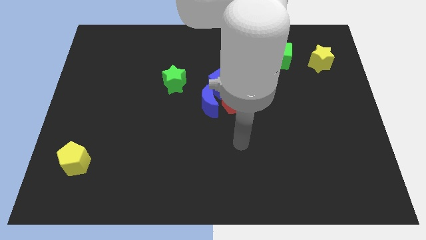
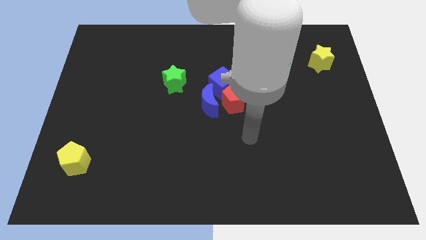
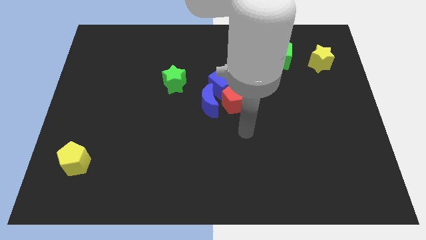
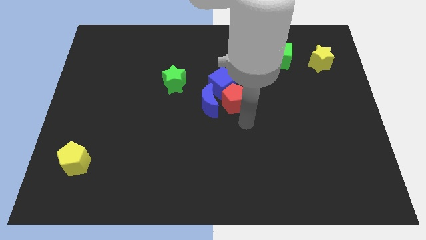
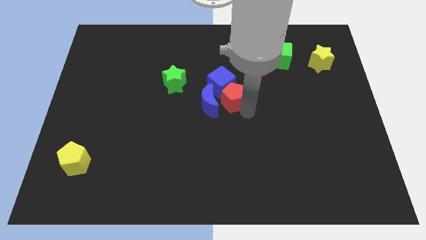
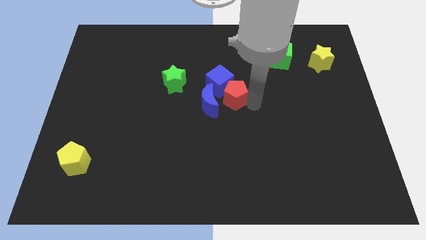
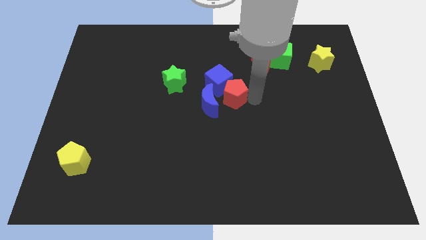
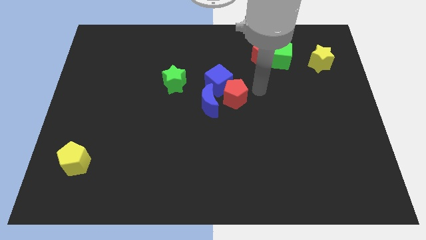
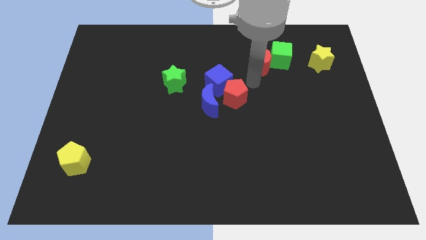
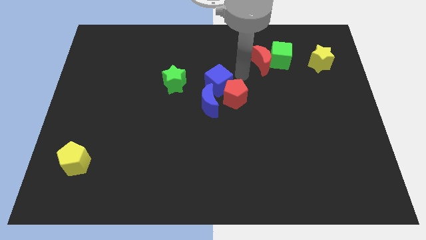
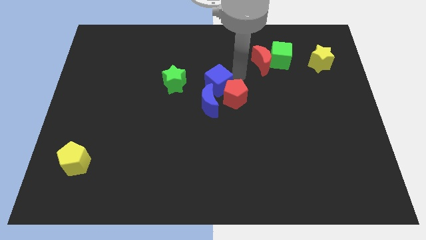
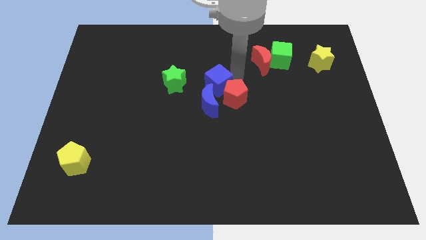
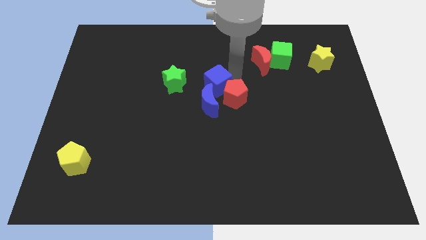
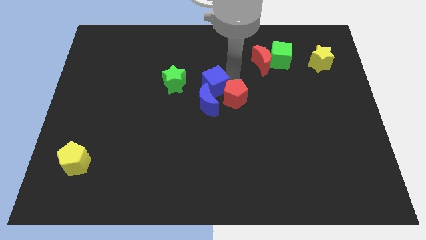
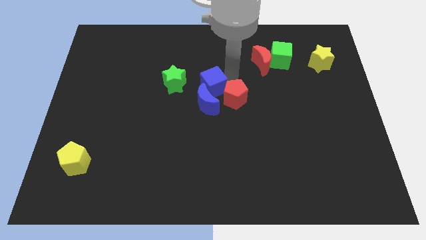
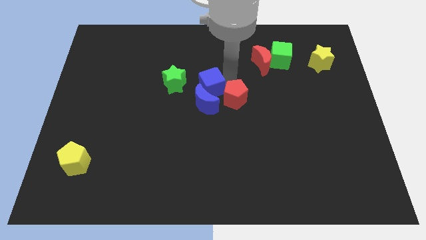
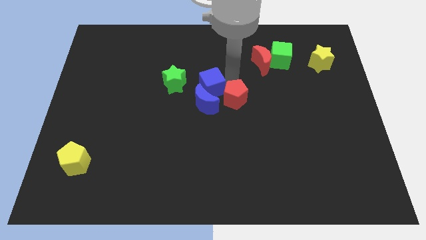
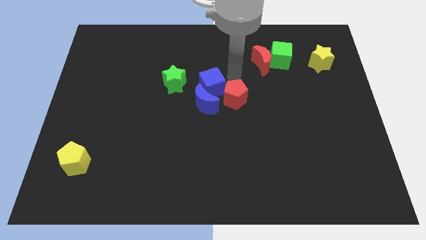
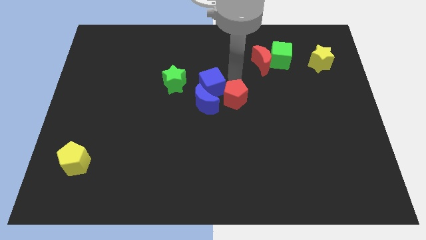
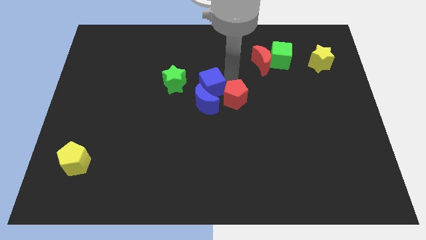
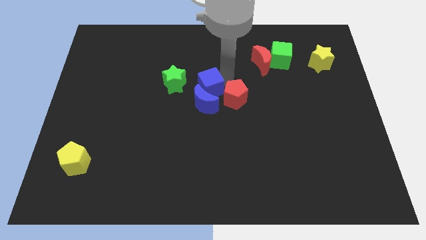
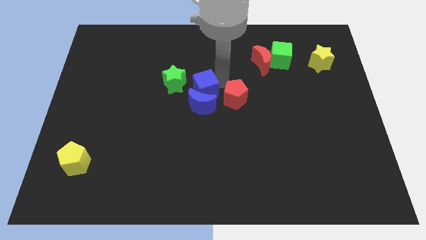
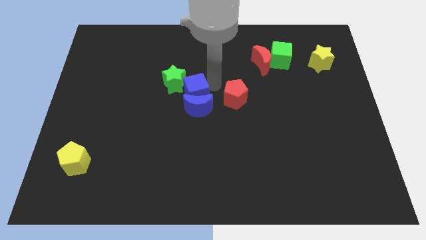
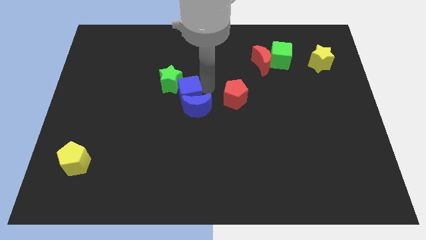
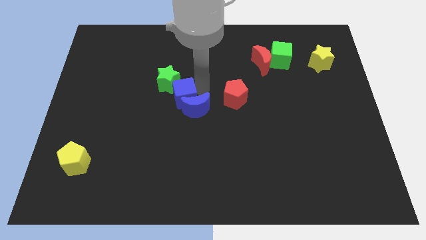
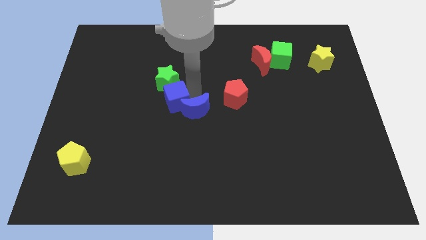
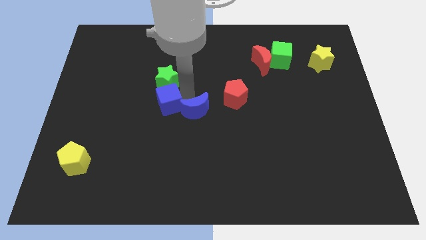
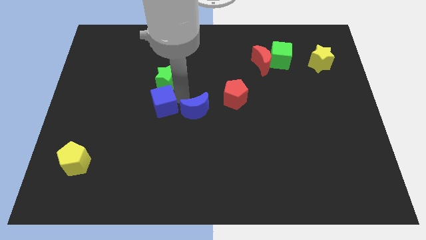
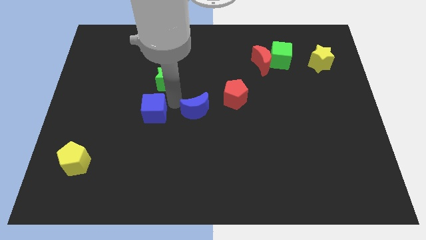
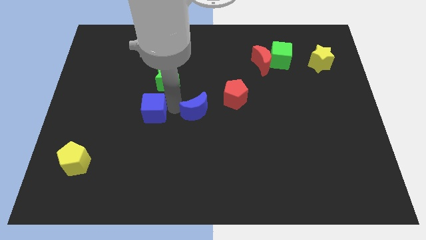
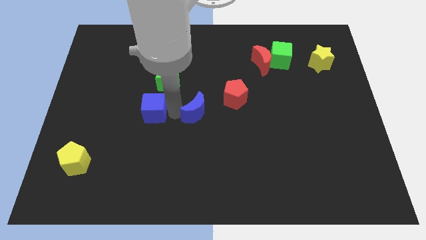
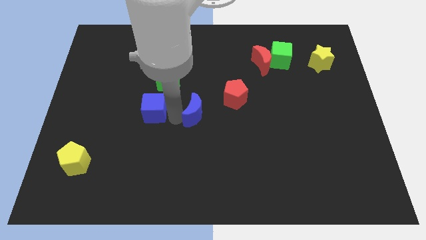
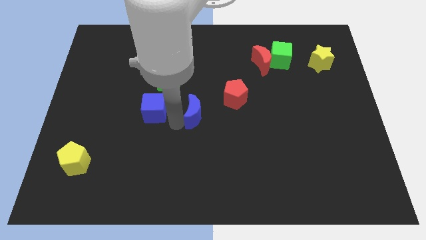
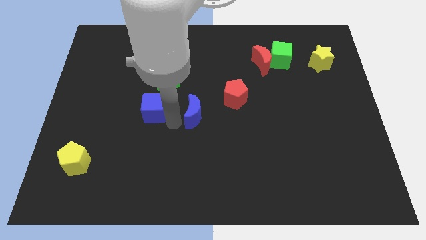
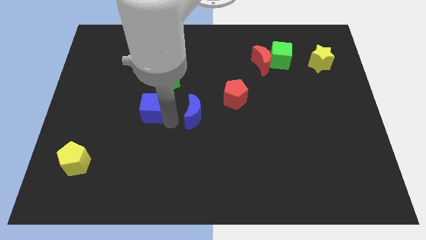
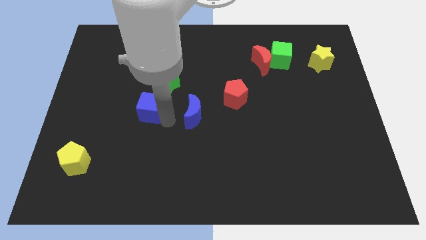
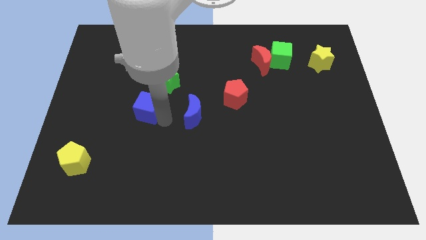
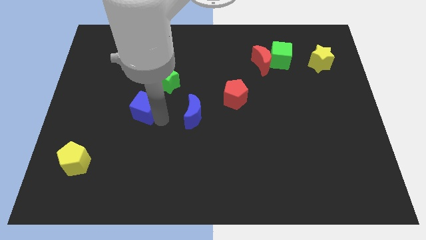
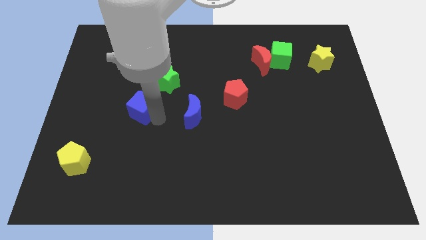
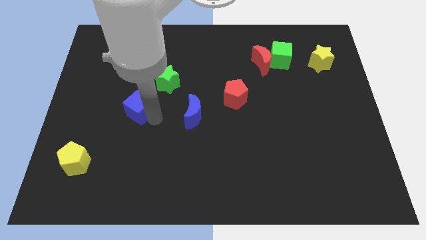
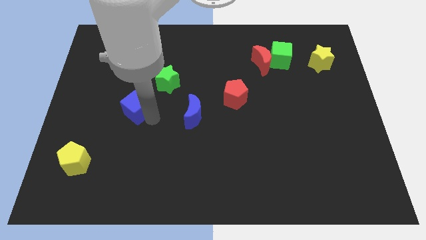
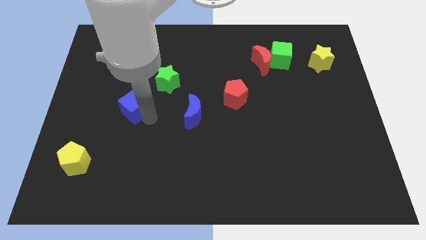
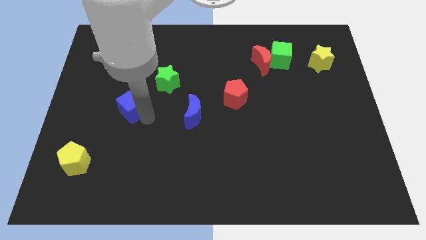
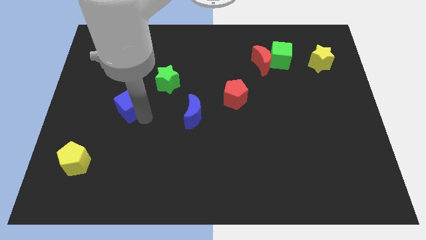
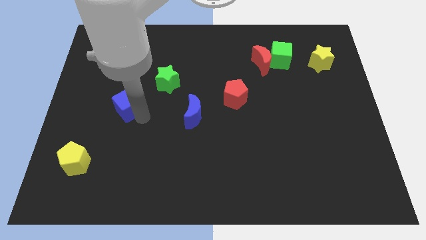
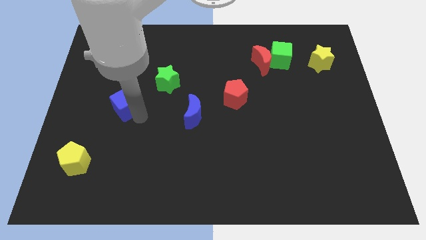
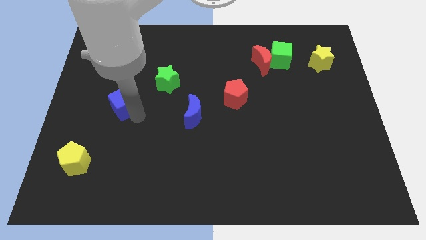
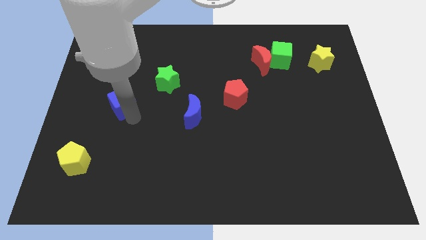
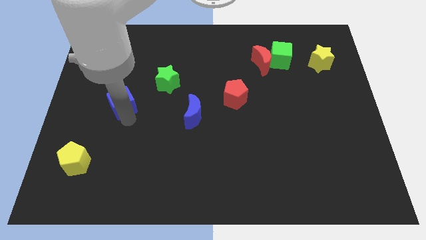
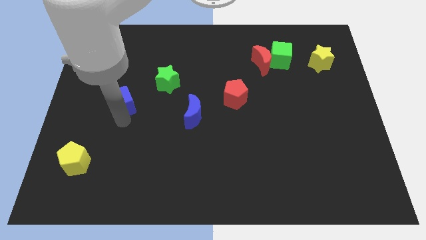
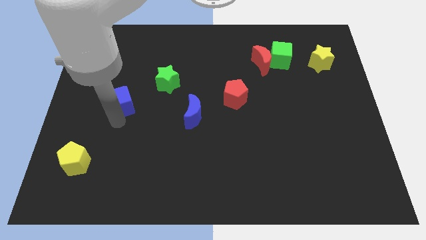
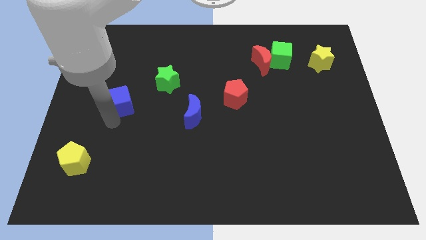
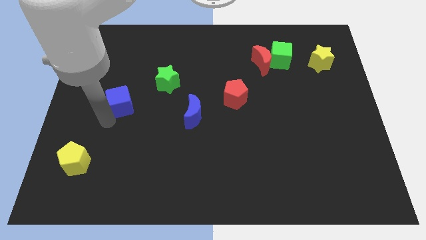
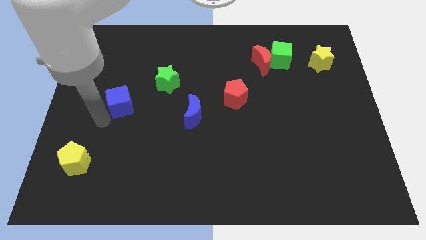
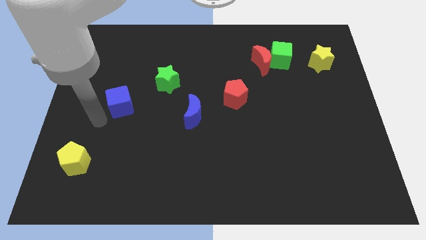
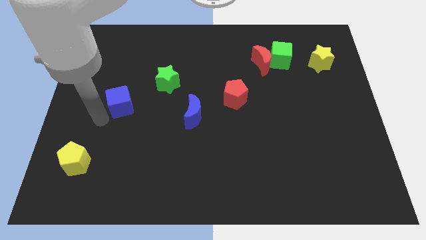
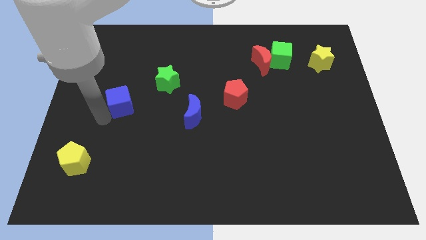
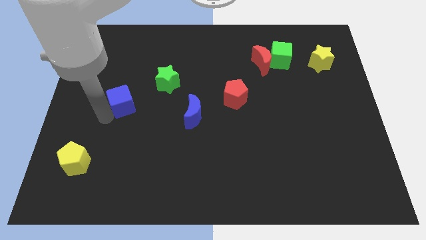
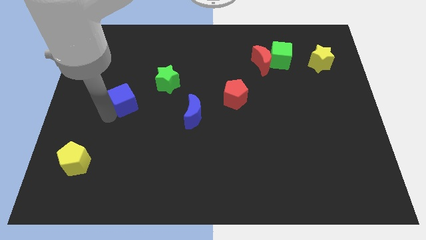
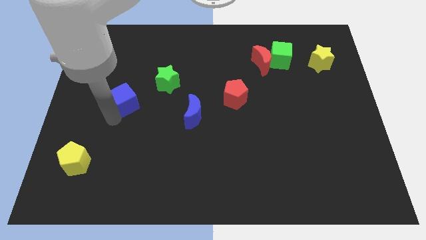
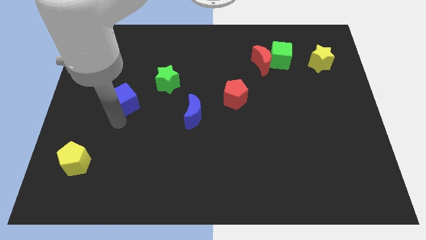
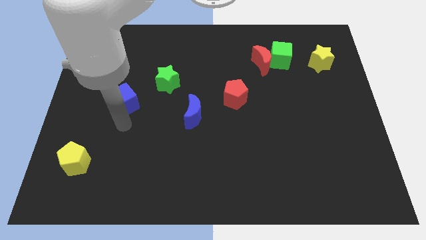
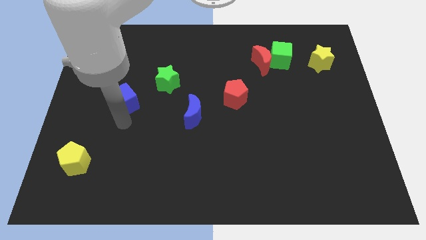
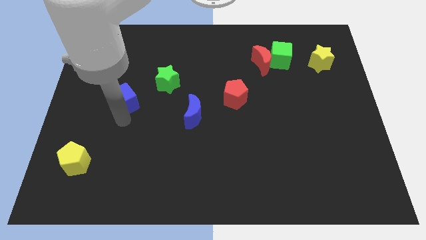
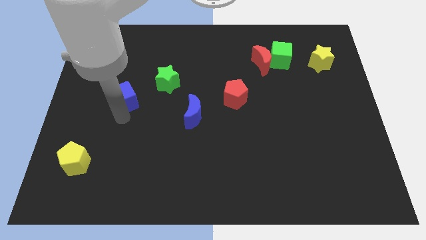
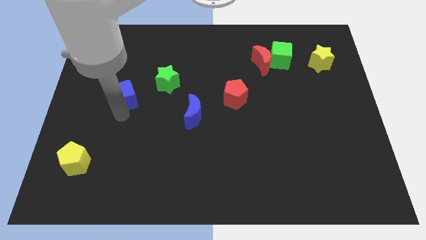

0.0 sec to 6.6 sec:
push the blue cube left of the green star

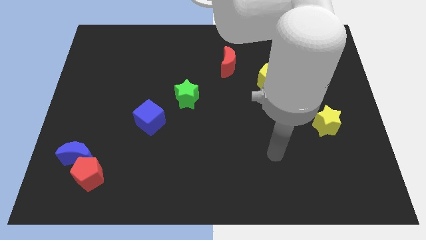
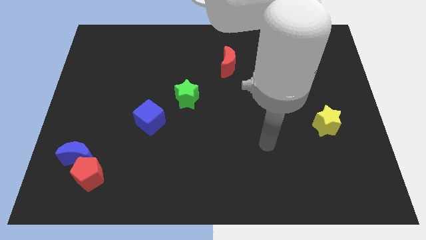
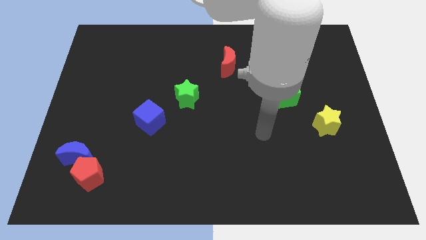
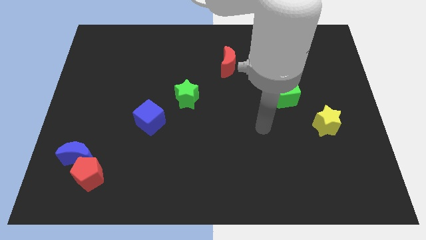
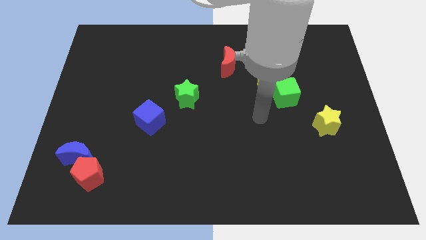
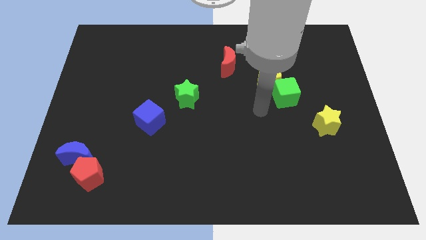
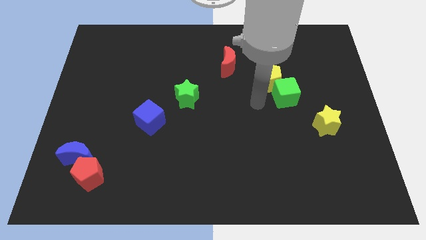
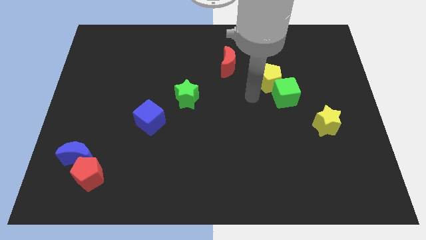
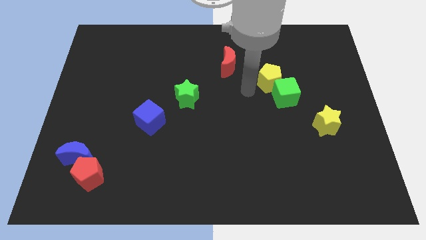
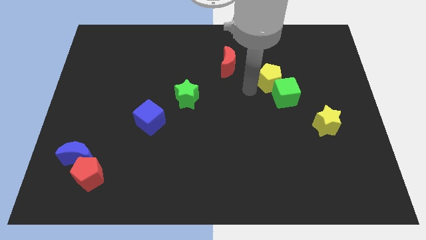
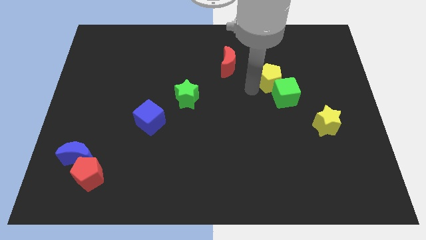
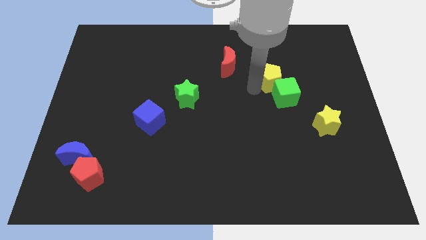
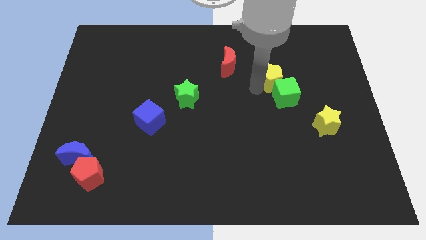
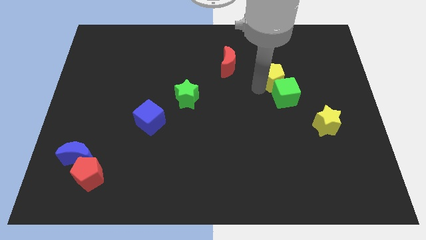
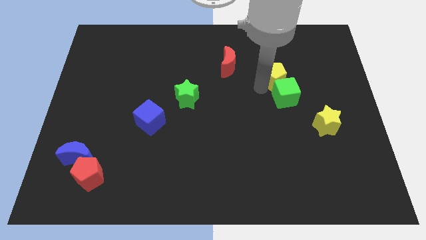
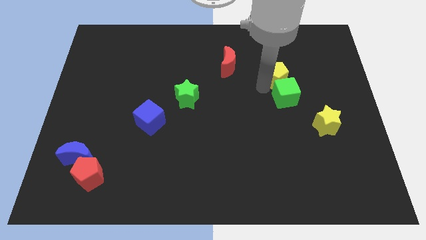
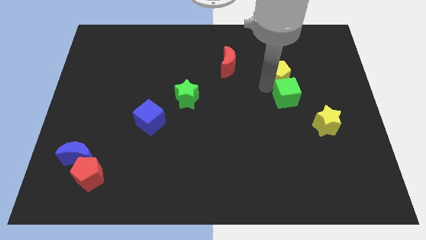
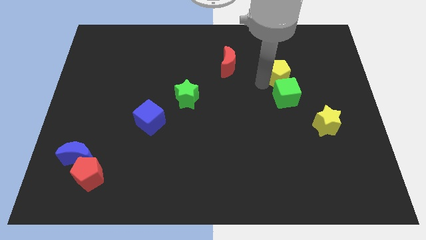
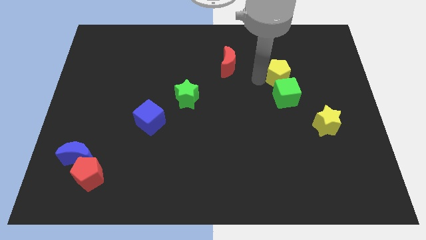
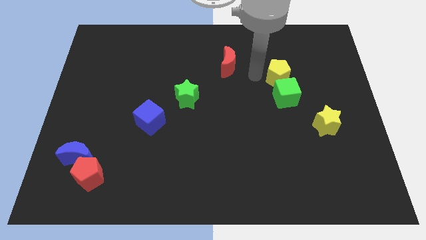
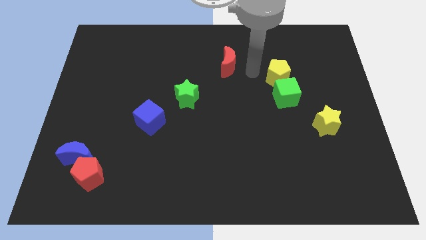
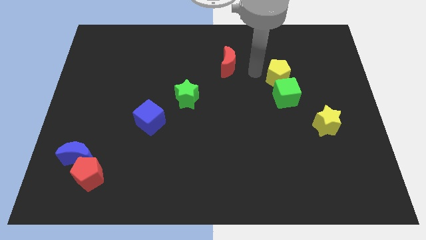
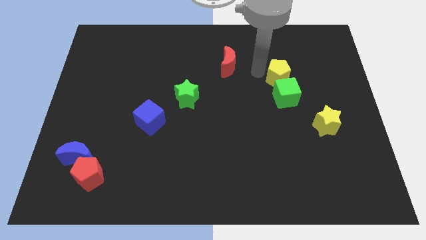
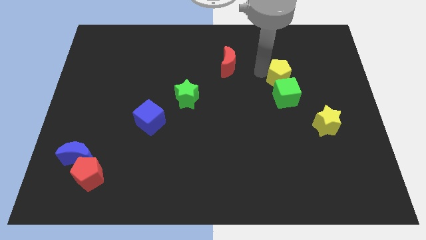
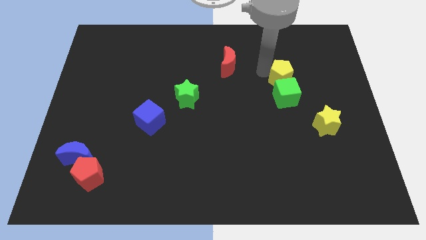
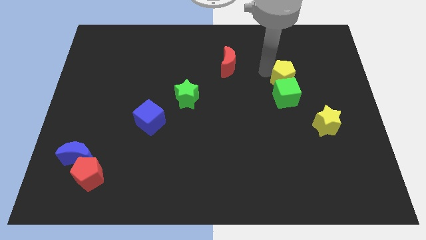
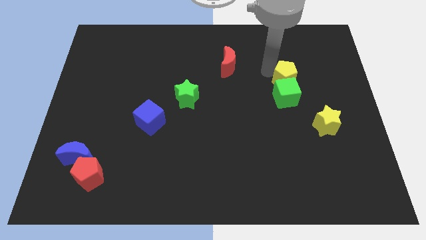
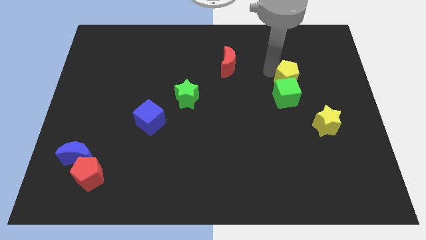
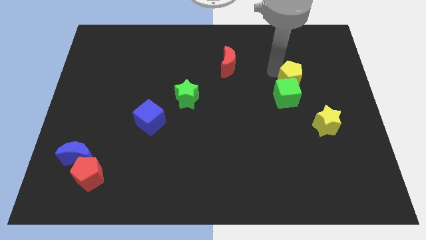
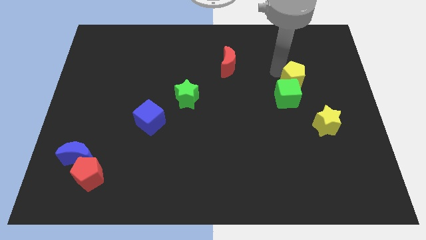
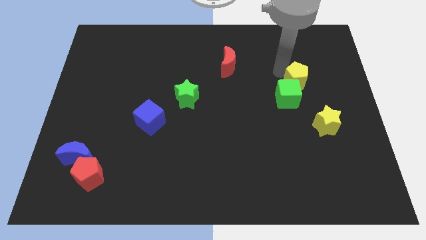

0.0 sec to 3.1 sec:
slide the yellow pentagon above the yellow star
